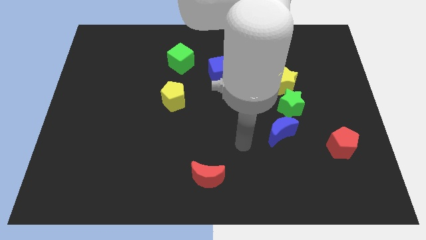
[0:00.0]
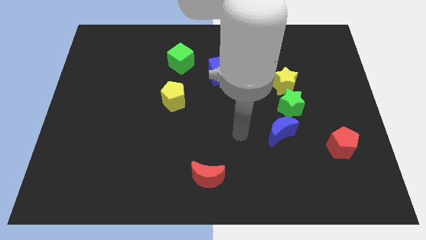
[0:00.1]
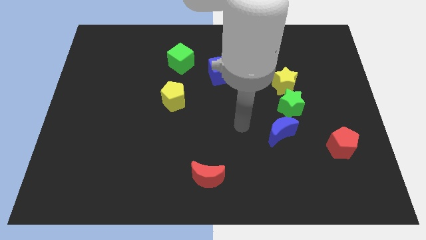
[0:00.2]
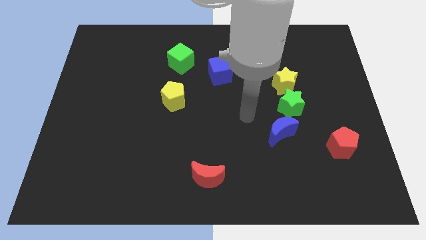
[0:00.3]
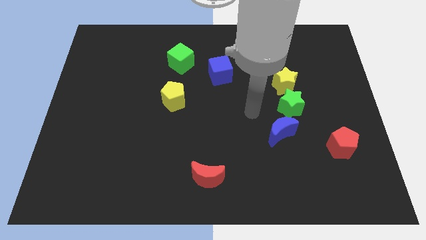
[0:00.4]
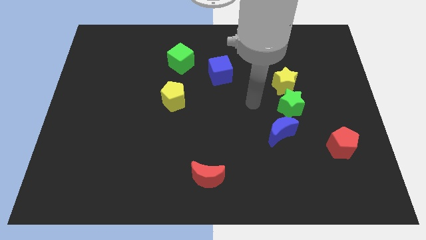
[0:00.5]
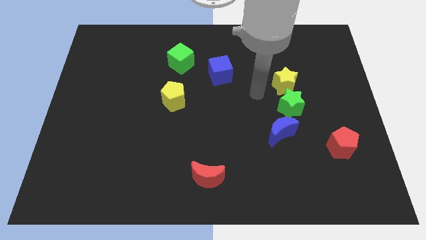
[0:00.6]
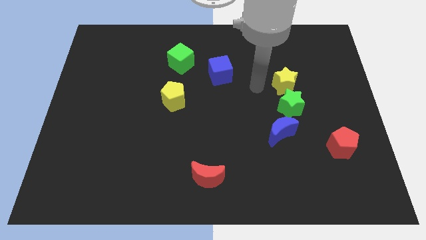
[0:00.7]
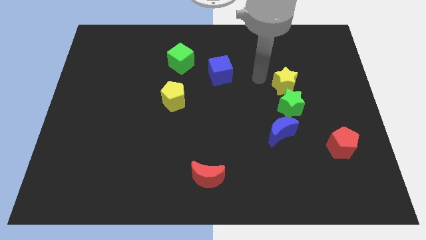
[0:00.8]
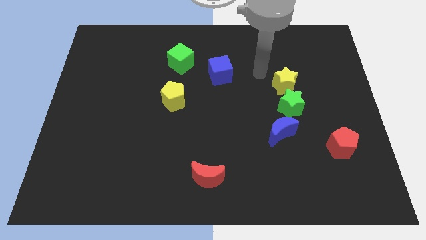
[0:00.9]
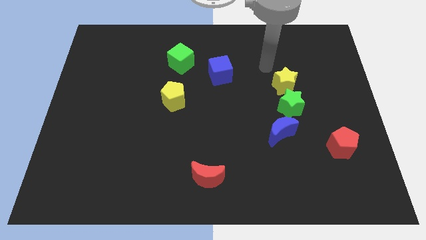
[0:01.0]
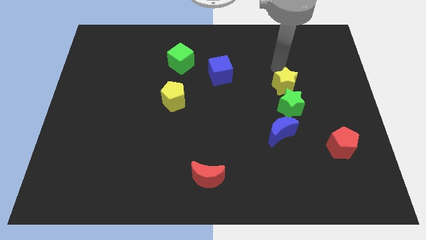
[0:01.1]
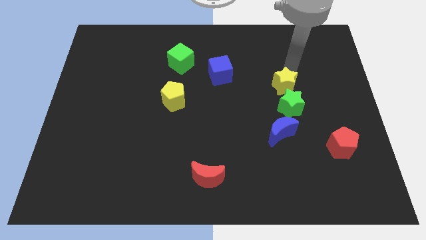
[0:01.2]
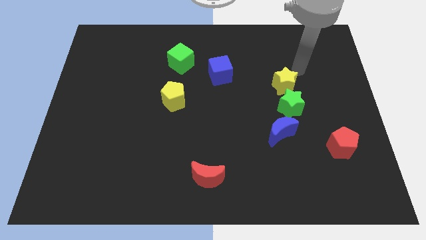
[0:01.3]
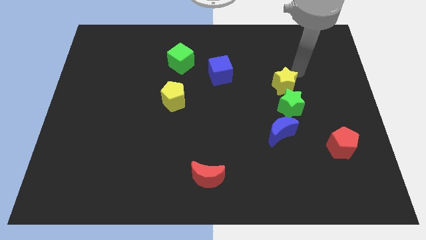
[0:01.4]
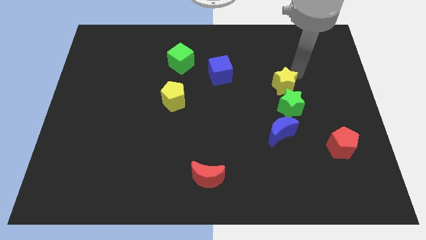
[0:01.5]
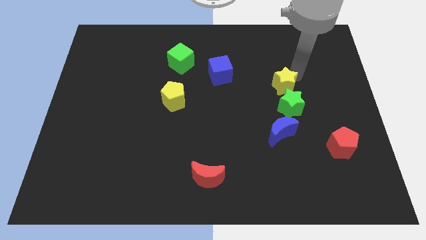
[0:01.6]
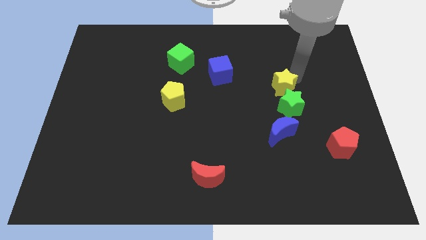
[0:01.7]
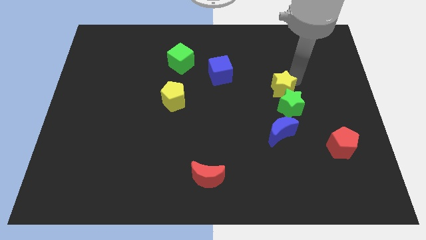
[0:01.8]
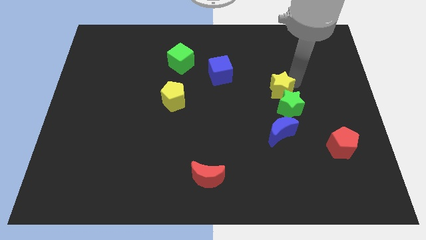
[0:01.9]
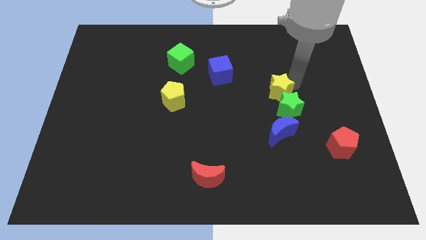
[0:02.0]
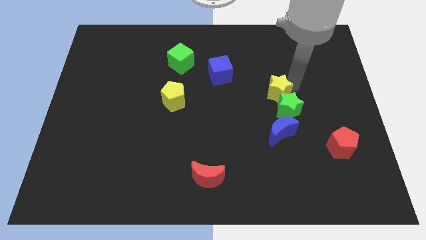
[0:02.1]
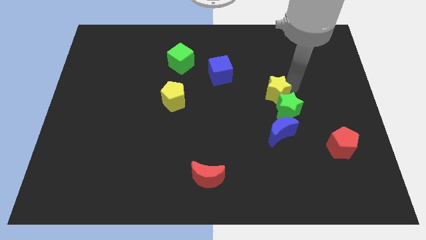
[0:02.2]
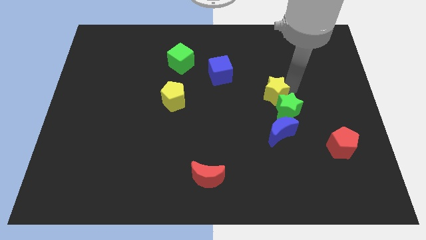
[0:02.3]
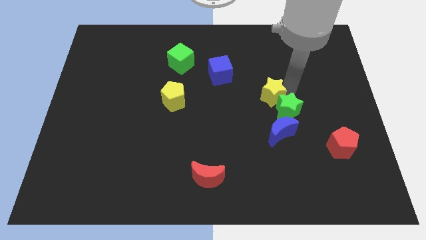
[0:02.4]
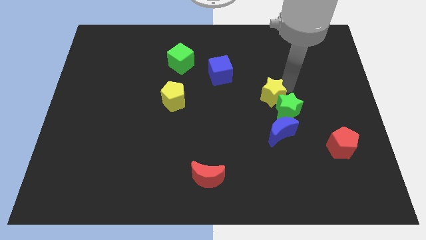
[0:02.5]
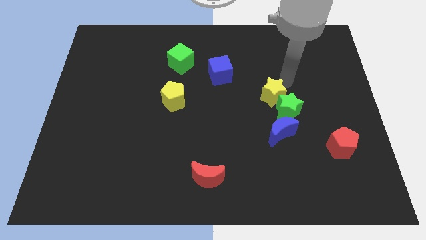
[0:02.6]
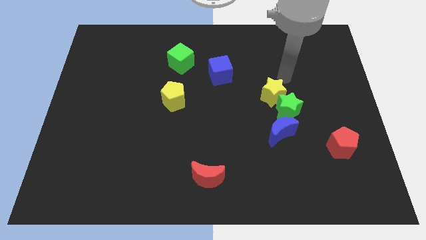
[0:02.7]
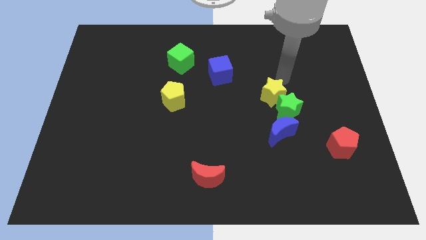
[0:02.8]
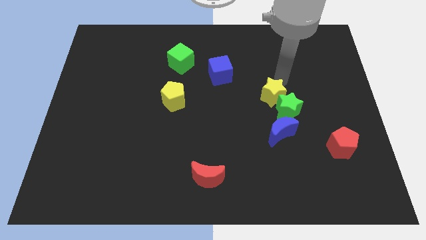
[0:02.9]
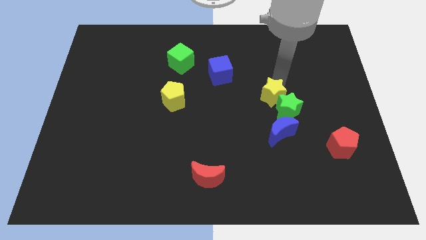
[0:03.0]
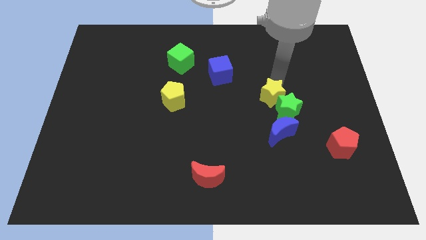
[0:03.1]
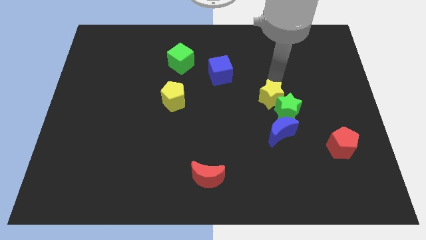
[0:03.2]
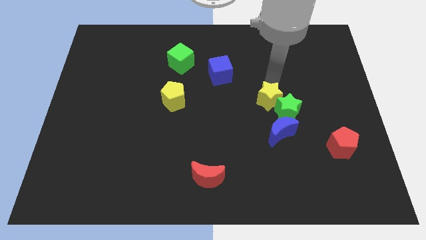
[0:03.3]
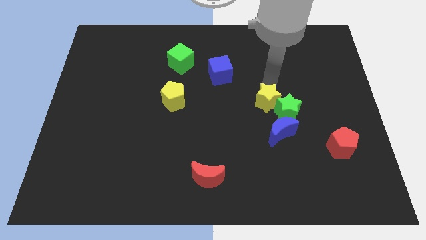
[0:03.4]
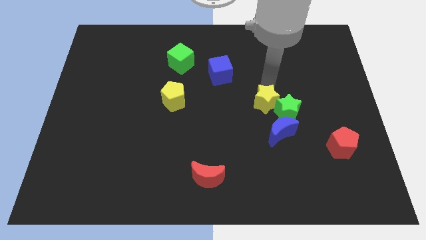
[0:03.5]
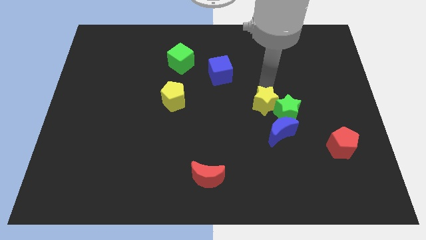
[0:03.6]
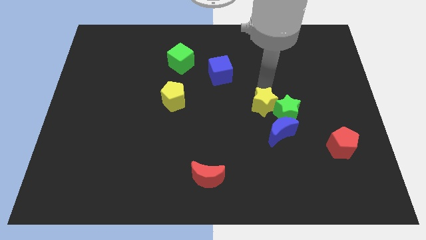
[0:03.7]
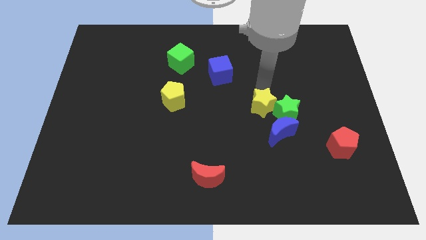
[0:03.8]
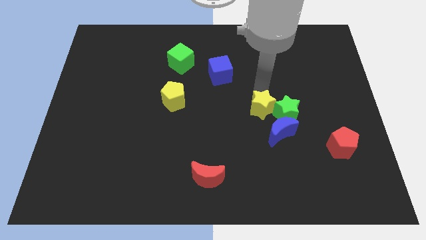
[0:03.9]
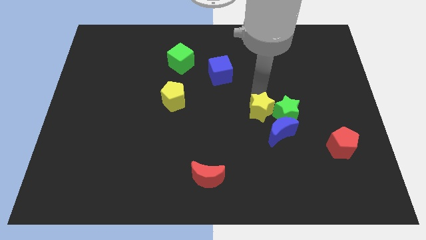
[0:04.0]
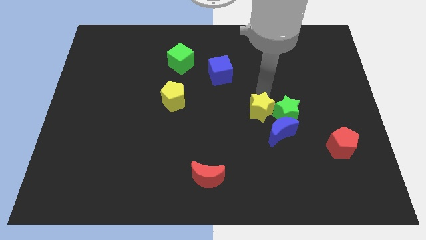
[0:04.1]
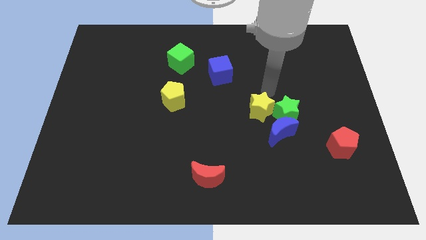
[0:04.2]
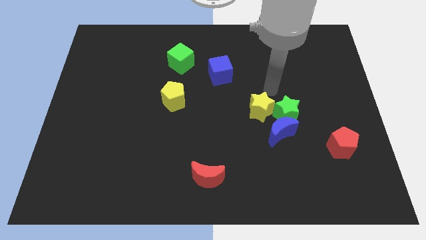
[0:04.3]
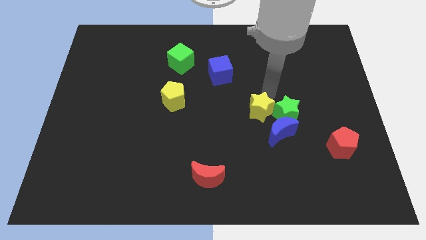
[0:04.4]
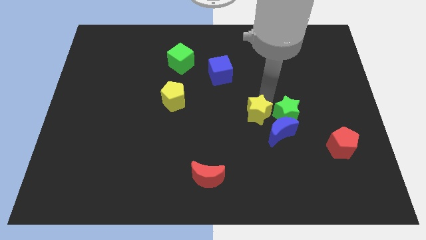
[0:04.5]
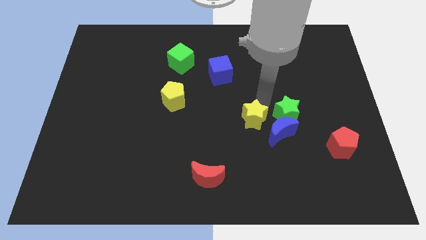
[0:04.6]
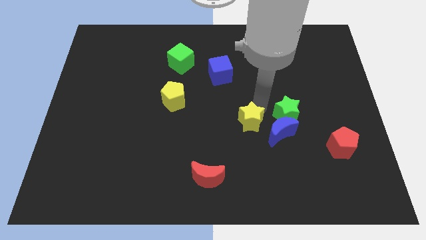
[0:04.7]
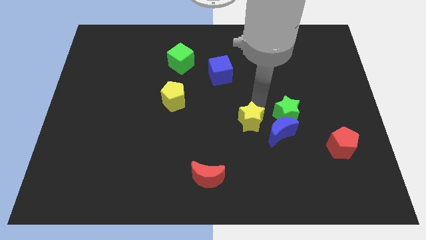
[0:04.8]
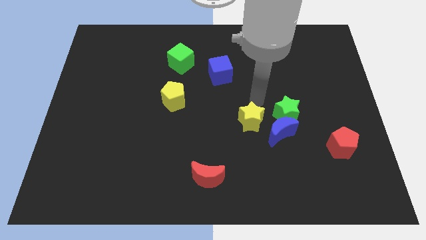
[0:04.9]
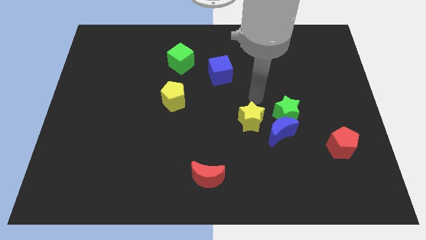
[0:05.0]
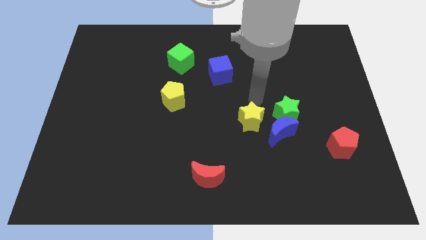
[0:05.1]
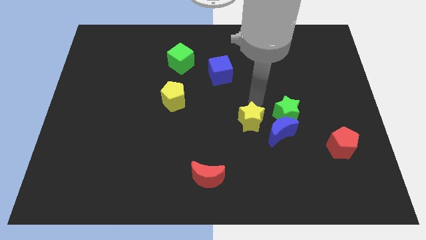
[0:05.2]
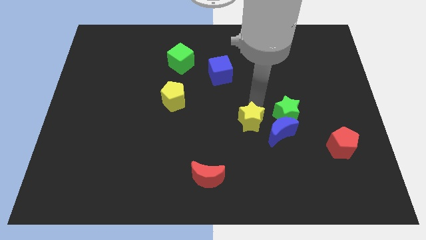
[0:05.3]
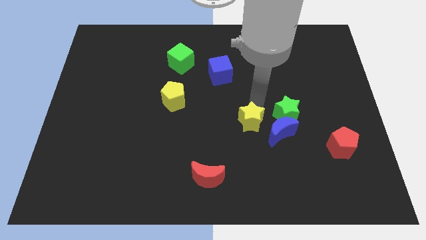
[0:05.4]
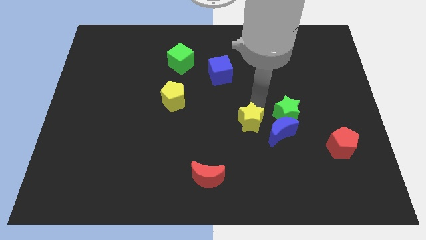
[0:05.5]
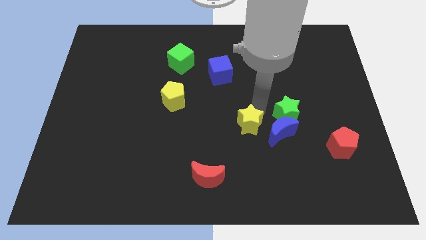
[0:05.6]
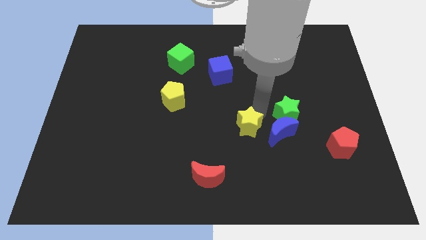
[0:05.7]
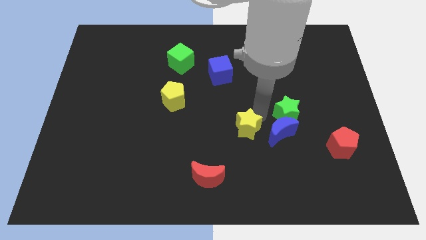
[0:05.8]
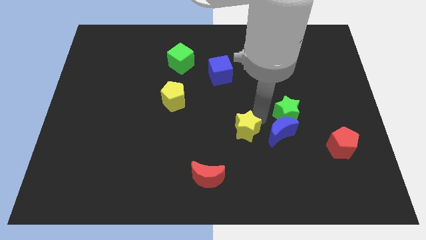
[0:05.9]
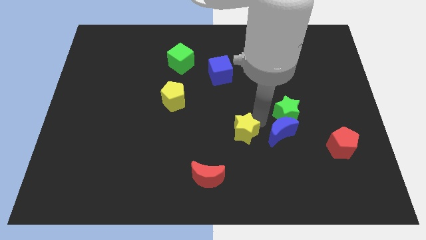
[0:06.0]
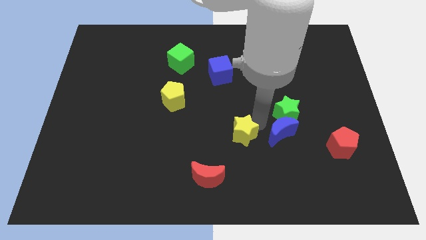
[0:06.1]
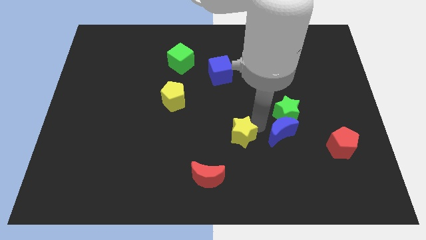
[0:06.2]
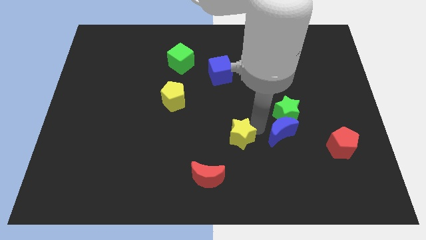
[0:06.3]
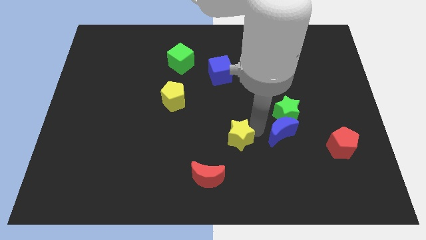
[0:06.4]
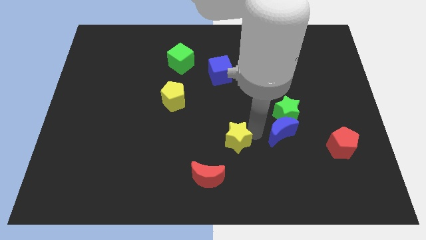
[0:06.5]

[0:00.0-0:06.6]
push the yellow star downwards and to the left diagonally

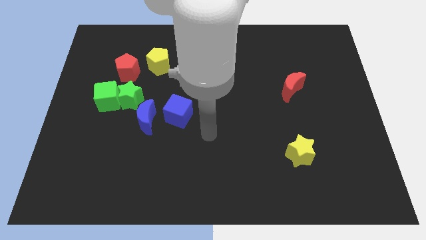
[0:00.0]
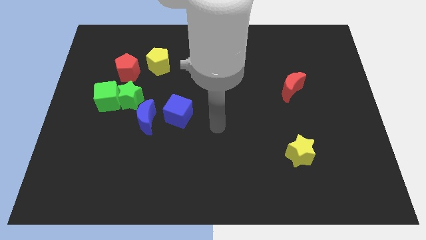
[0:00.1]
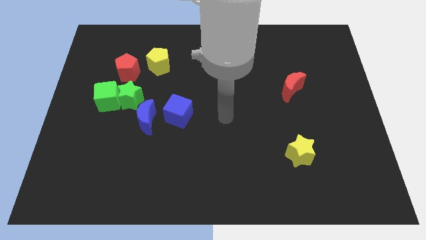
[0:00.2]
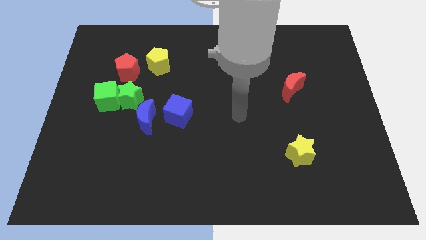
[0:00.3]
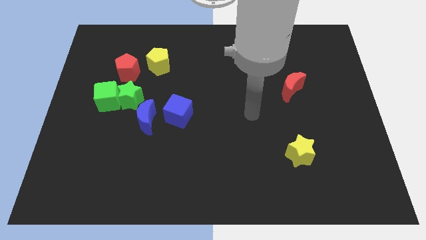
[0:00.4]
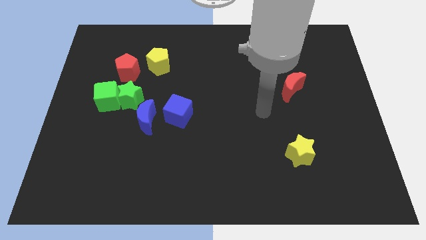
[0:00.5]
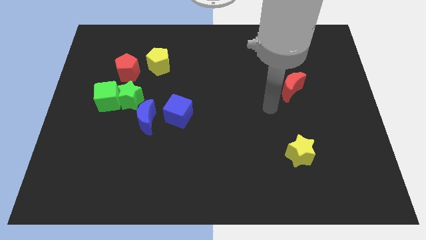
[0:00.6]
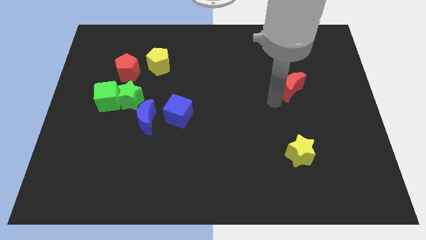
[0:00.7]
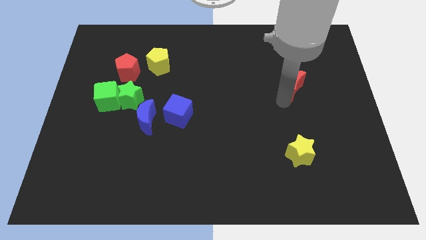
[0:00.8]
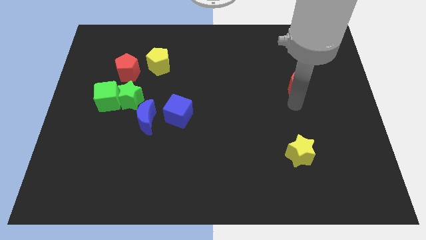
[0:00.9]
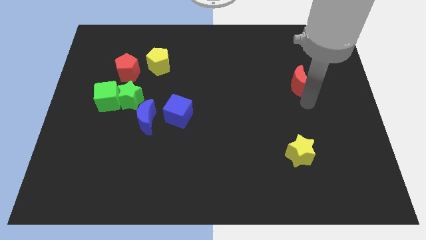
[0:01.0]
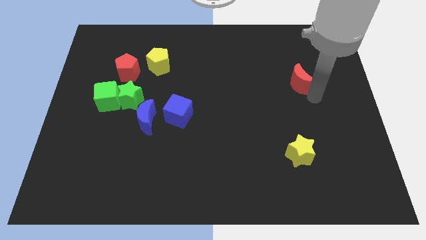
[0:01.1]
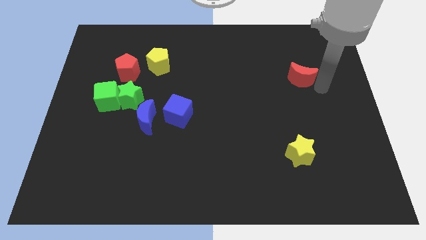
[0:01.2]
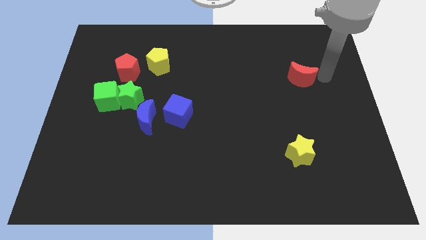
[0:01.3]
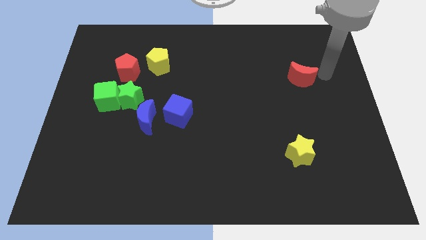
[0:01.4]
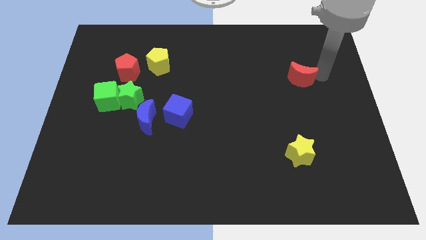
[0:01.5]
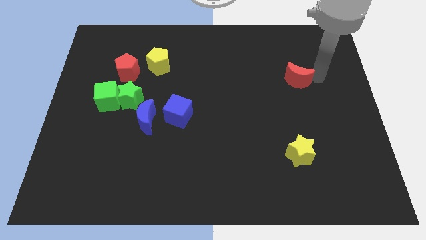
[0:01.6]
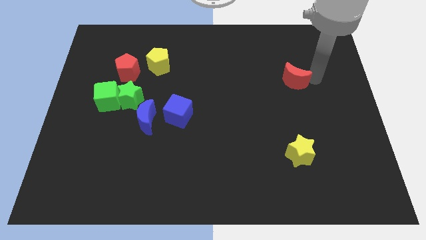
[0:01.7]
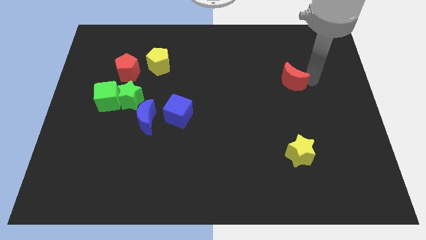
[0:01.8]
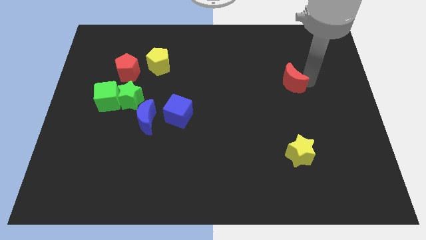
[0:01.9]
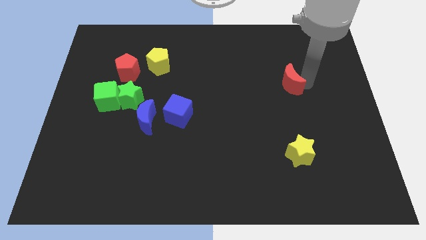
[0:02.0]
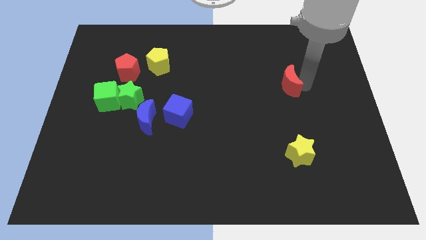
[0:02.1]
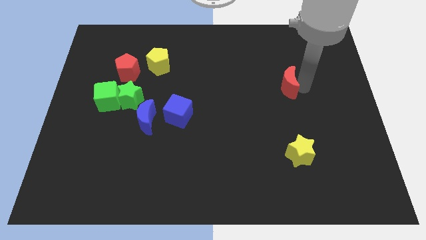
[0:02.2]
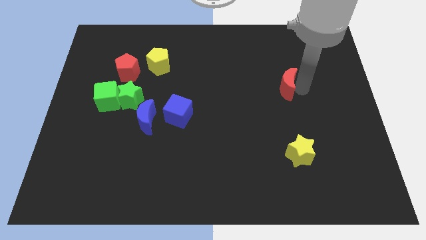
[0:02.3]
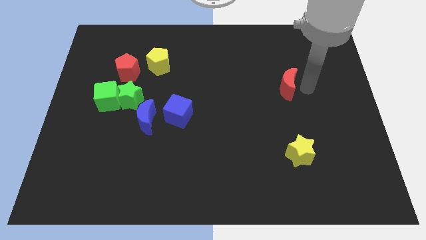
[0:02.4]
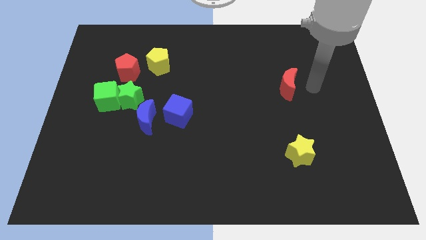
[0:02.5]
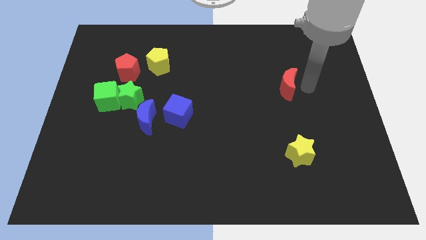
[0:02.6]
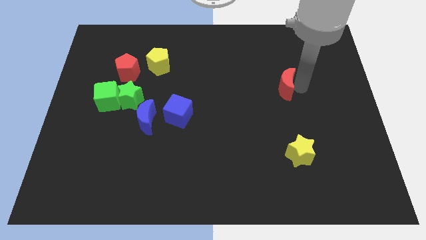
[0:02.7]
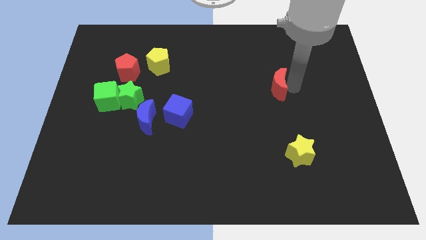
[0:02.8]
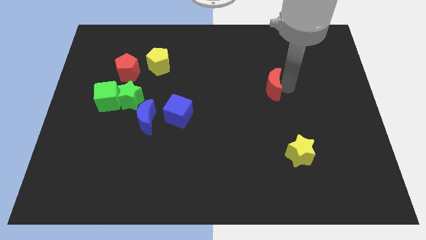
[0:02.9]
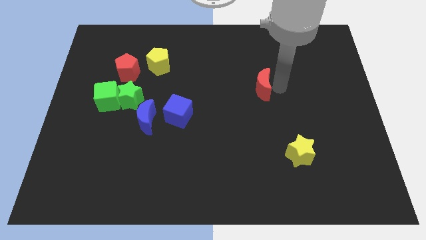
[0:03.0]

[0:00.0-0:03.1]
move the red moon a little bit to the left
